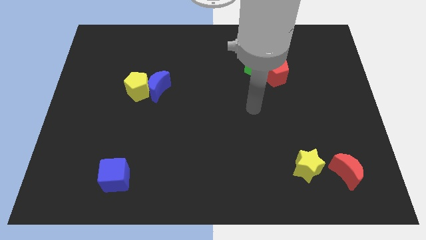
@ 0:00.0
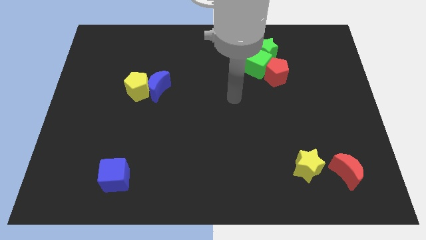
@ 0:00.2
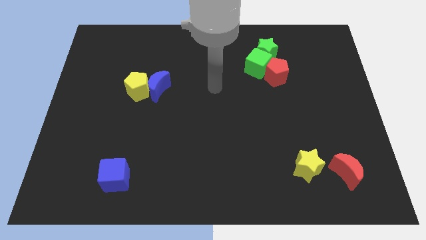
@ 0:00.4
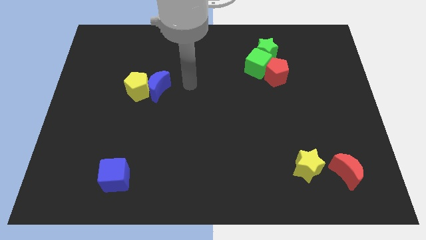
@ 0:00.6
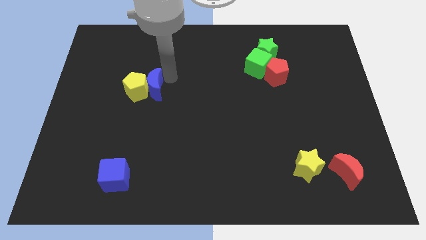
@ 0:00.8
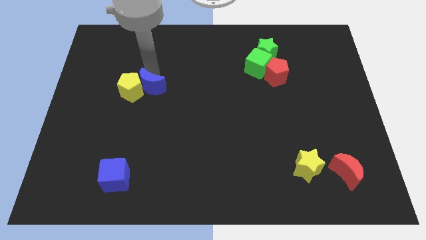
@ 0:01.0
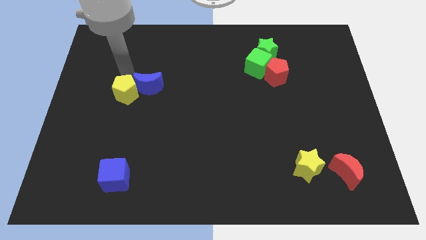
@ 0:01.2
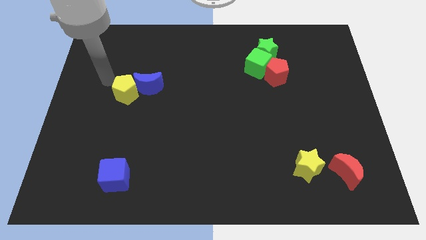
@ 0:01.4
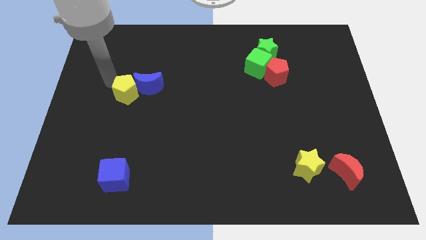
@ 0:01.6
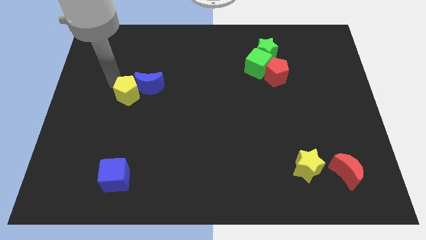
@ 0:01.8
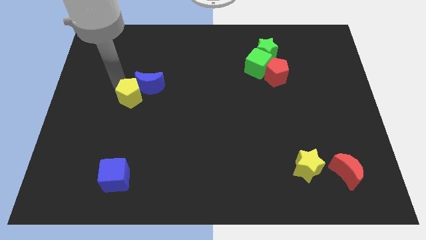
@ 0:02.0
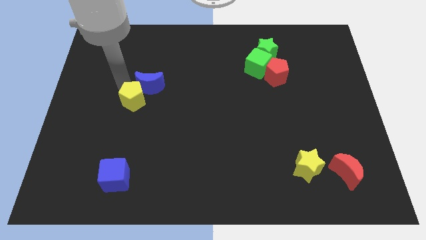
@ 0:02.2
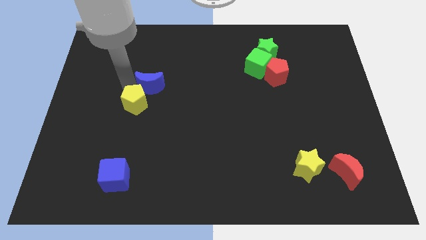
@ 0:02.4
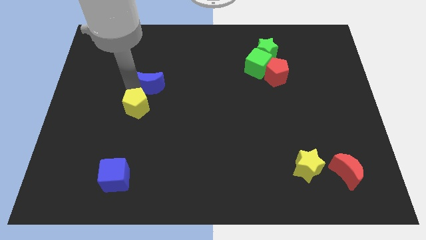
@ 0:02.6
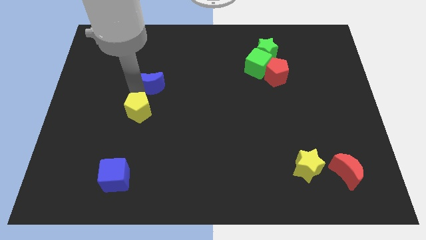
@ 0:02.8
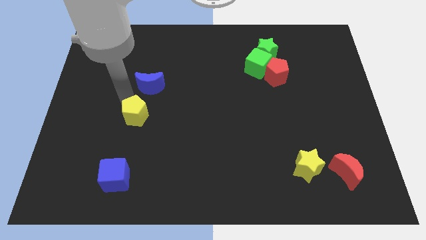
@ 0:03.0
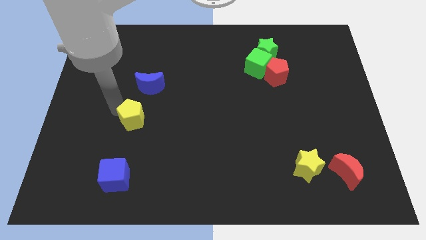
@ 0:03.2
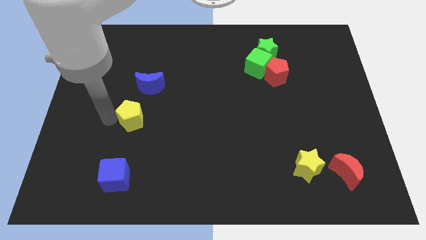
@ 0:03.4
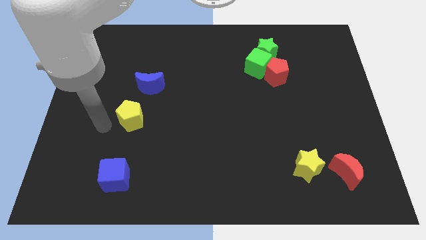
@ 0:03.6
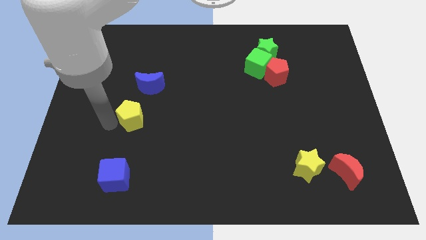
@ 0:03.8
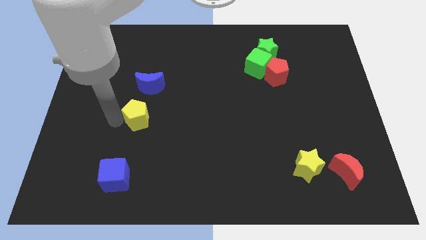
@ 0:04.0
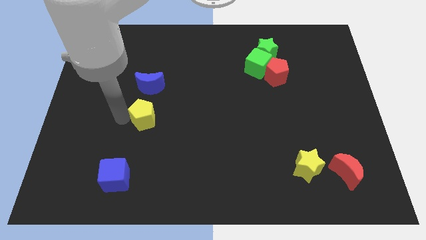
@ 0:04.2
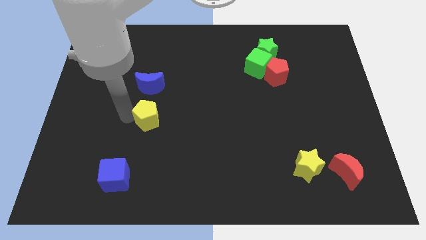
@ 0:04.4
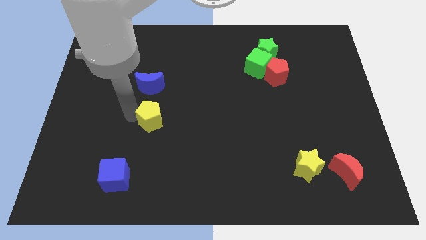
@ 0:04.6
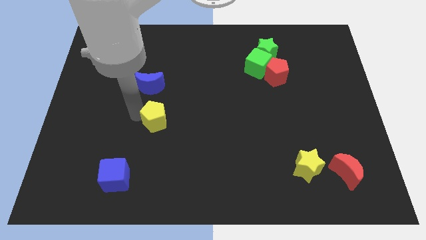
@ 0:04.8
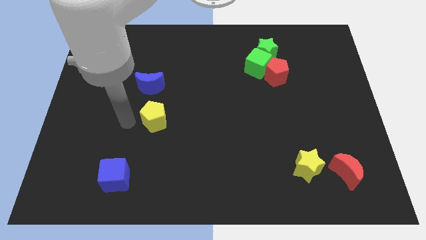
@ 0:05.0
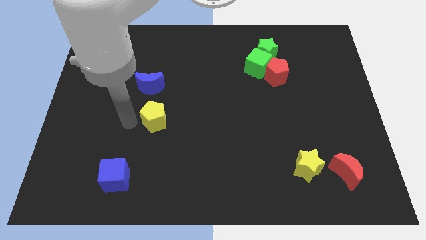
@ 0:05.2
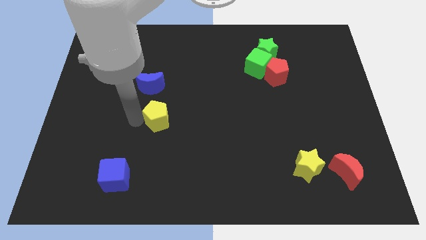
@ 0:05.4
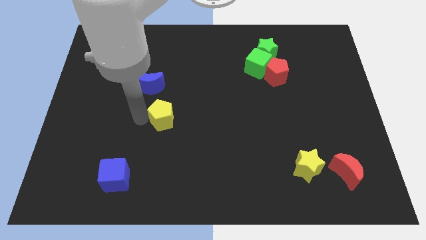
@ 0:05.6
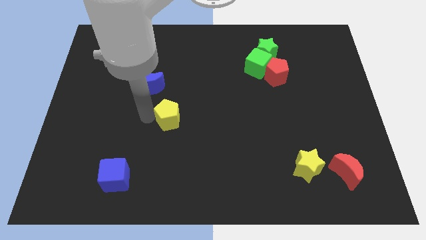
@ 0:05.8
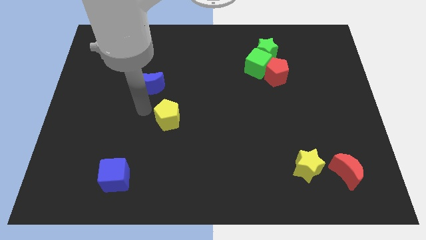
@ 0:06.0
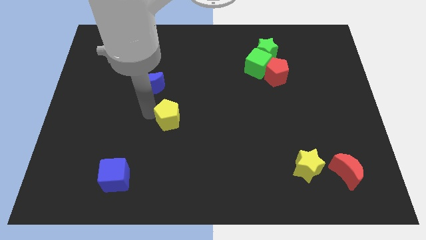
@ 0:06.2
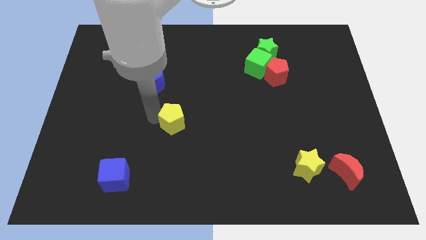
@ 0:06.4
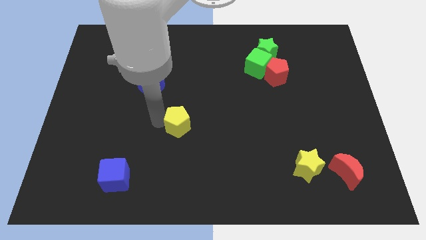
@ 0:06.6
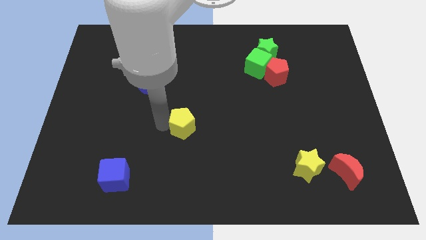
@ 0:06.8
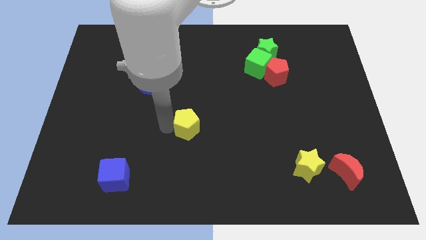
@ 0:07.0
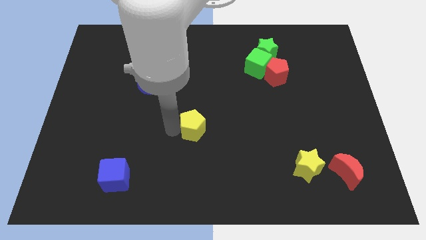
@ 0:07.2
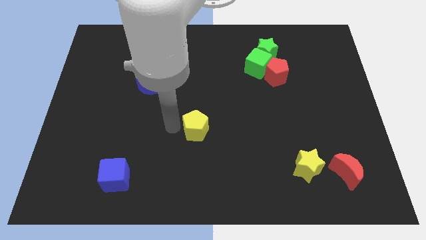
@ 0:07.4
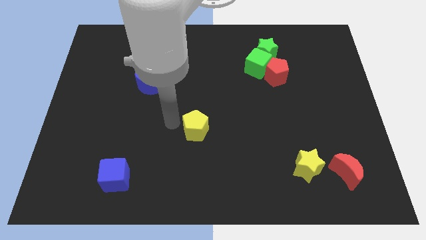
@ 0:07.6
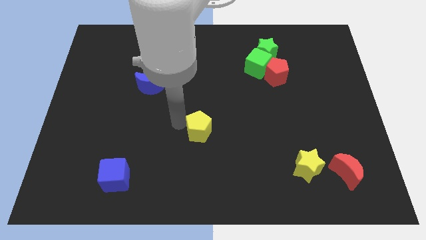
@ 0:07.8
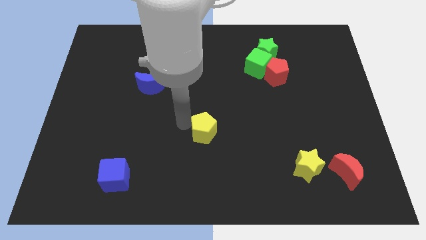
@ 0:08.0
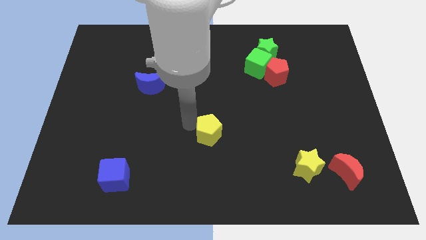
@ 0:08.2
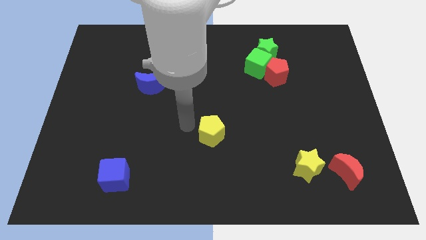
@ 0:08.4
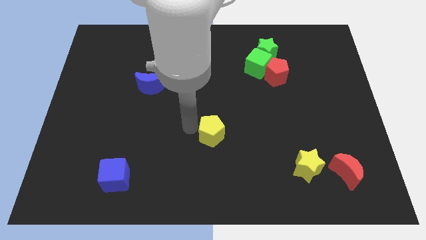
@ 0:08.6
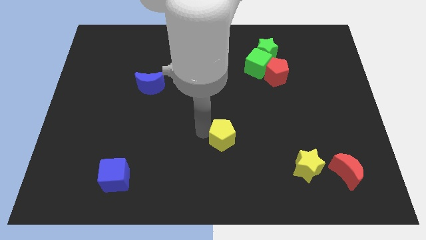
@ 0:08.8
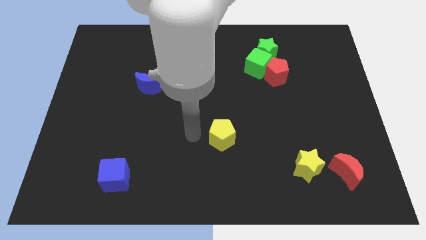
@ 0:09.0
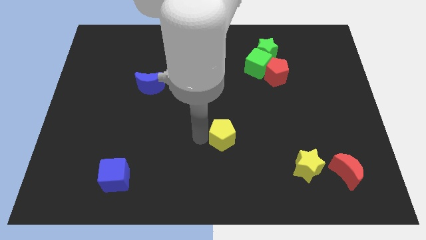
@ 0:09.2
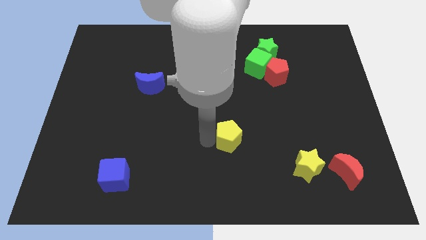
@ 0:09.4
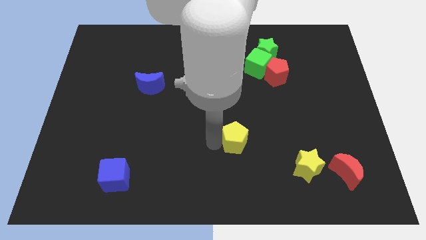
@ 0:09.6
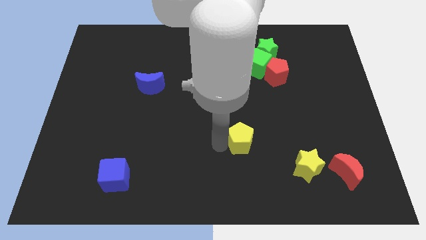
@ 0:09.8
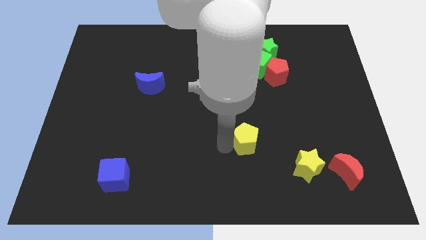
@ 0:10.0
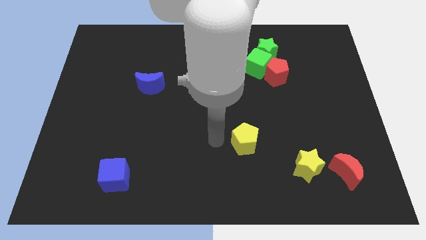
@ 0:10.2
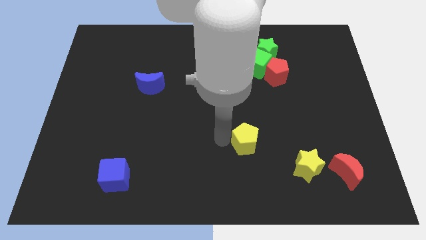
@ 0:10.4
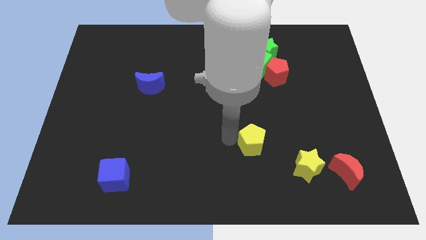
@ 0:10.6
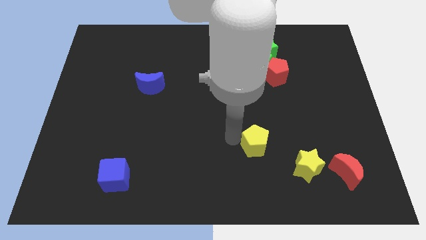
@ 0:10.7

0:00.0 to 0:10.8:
push the yellow pentagon to the top left side of the yellow star

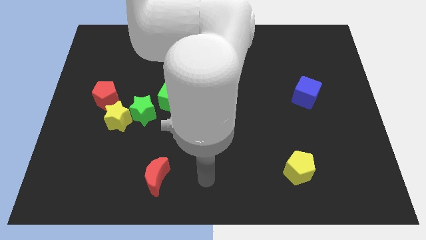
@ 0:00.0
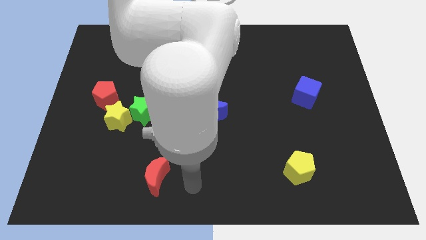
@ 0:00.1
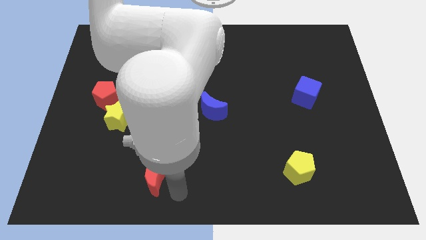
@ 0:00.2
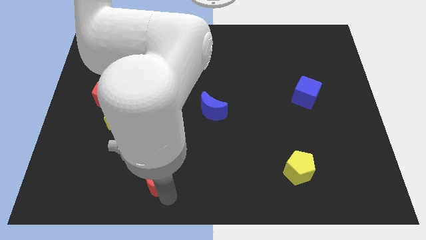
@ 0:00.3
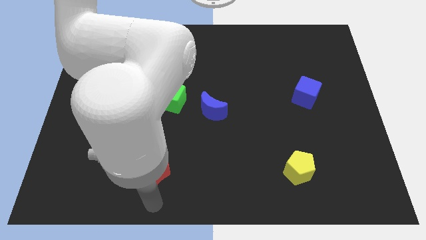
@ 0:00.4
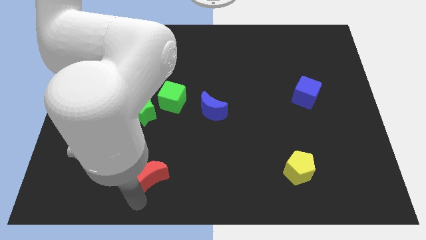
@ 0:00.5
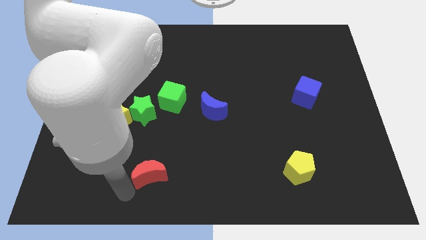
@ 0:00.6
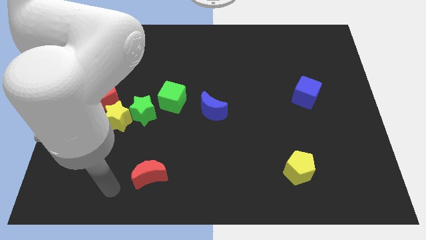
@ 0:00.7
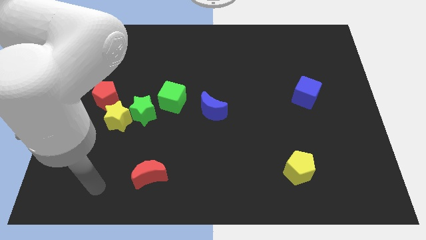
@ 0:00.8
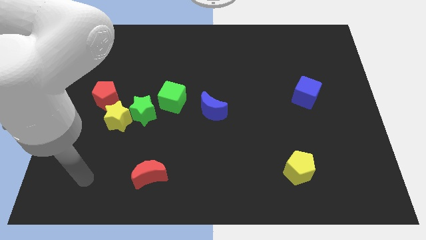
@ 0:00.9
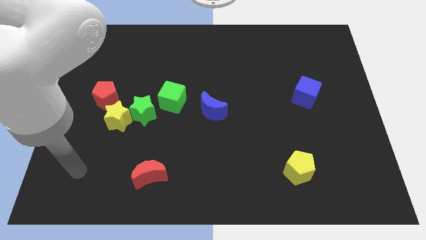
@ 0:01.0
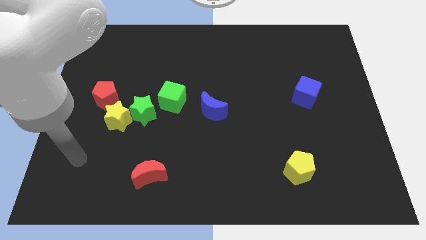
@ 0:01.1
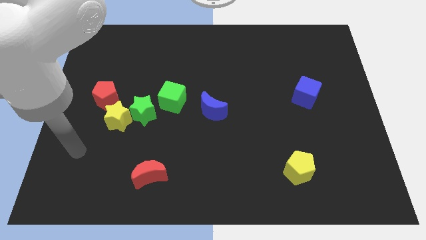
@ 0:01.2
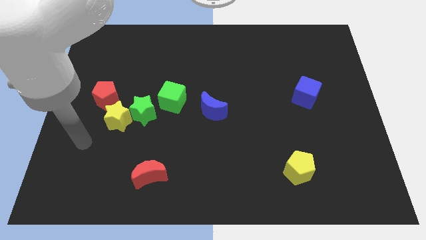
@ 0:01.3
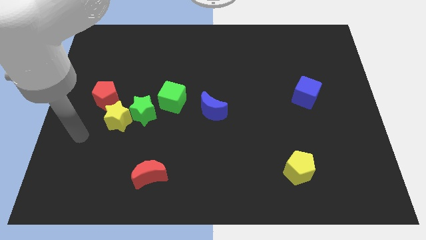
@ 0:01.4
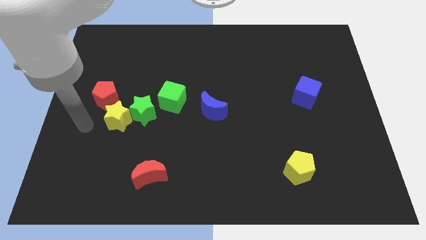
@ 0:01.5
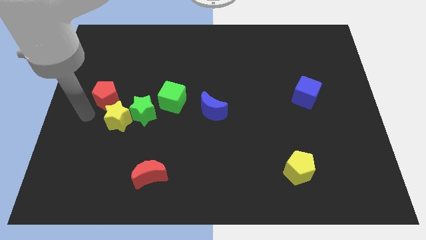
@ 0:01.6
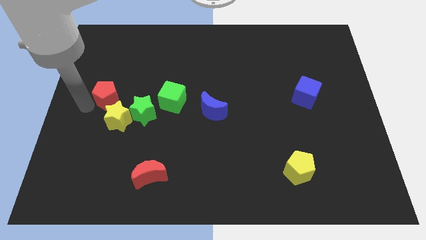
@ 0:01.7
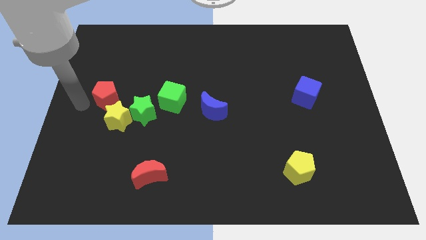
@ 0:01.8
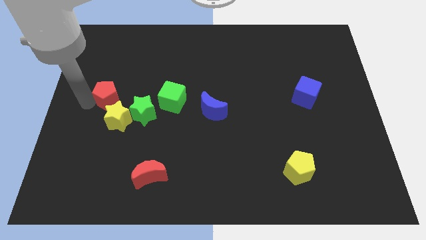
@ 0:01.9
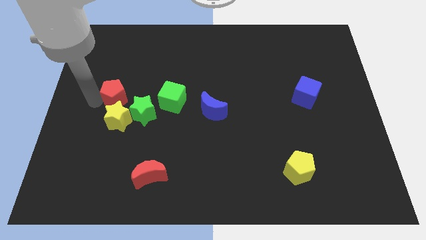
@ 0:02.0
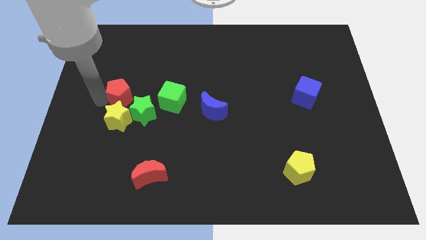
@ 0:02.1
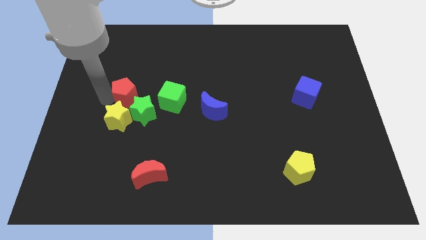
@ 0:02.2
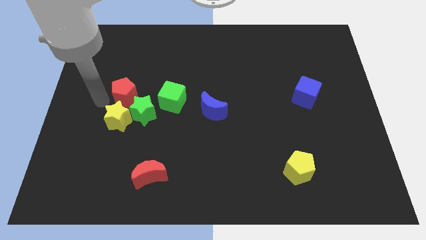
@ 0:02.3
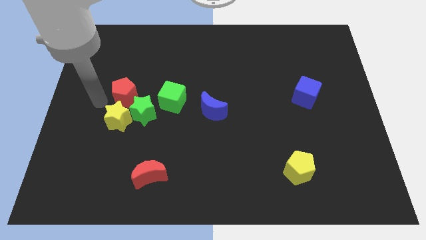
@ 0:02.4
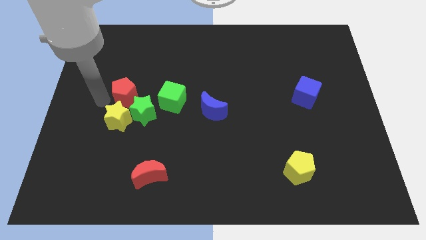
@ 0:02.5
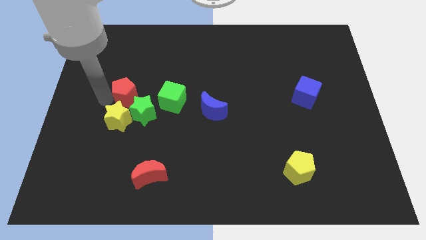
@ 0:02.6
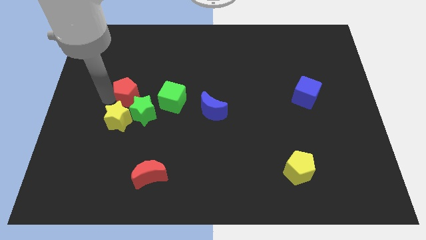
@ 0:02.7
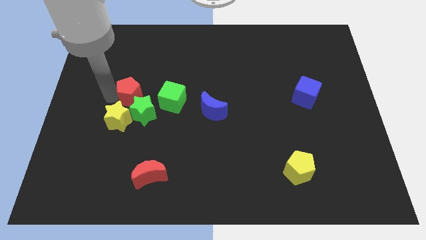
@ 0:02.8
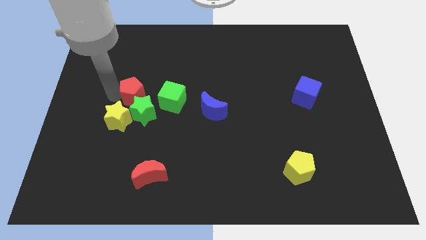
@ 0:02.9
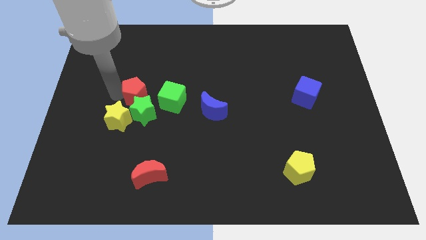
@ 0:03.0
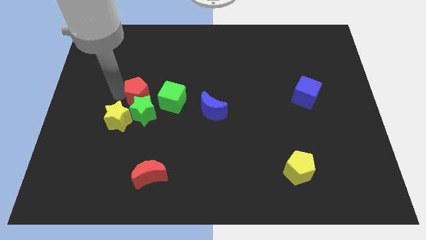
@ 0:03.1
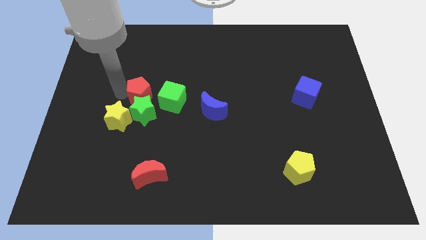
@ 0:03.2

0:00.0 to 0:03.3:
push the red pentagon to the top right of the green star
